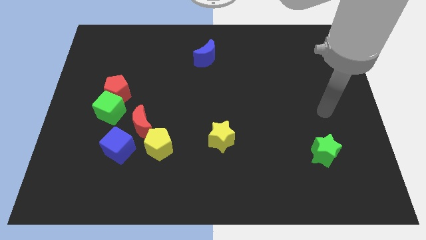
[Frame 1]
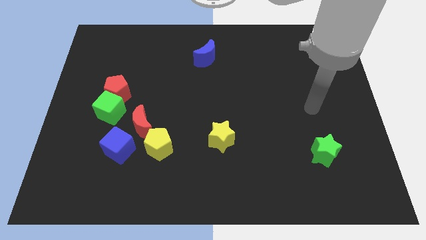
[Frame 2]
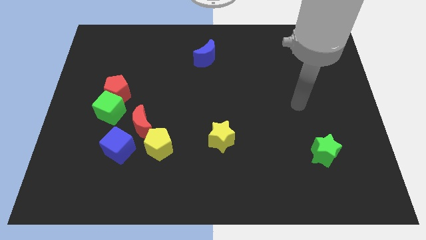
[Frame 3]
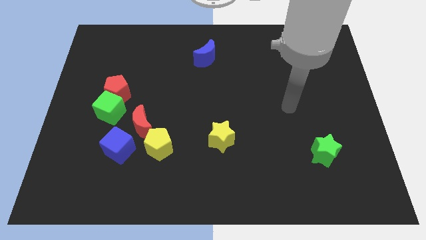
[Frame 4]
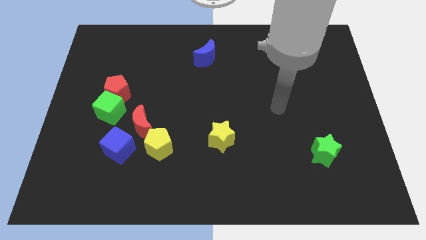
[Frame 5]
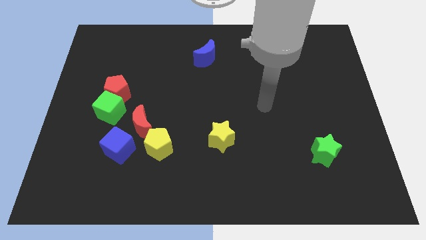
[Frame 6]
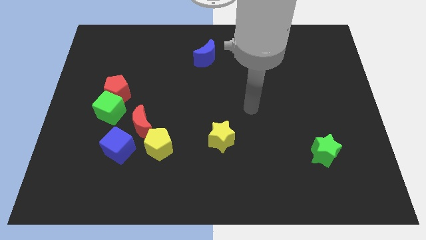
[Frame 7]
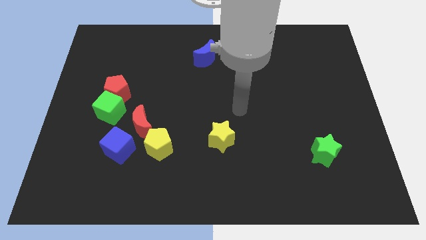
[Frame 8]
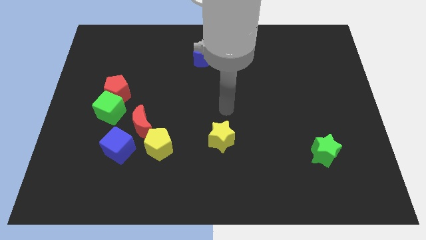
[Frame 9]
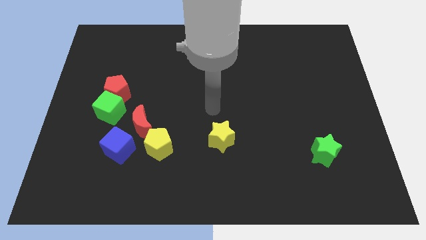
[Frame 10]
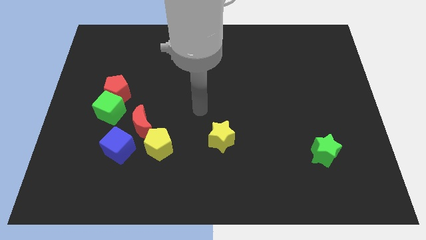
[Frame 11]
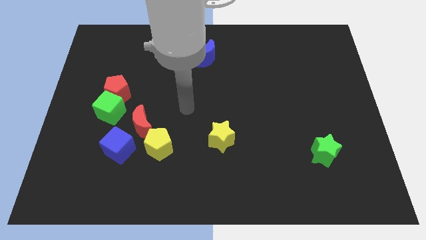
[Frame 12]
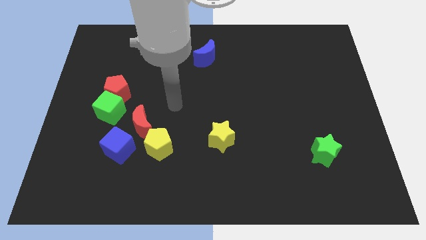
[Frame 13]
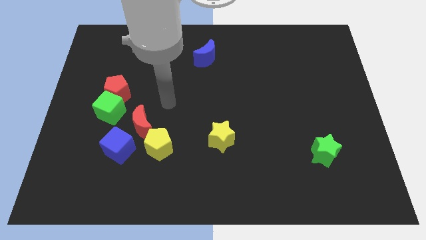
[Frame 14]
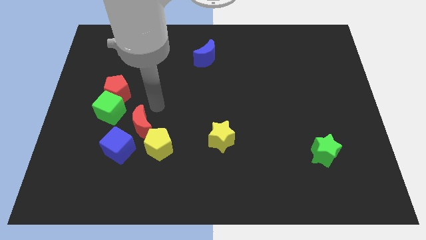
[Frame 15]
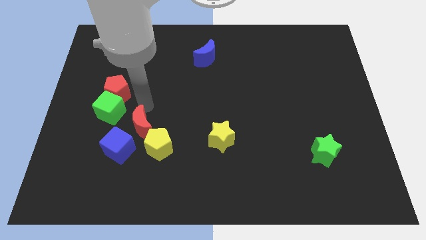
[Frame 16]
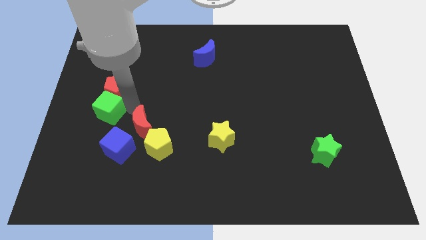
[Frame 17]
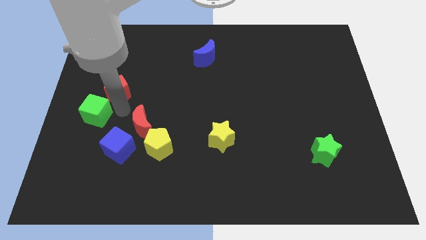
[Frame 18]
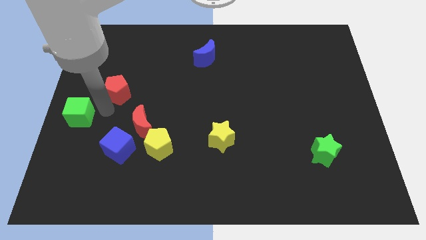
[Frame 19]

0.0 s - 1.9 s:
separate the red pentagon from the green cube

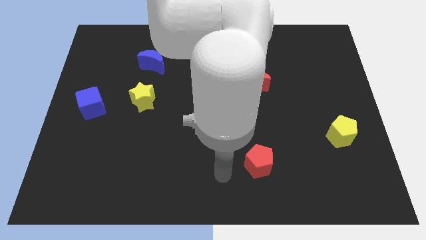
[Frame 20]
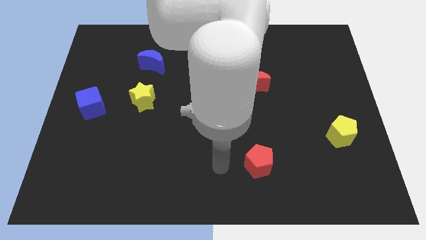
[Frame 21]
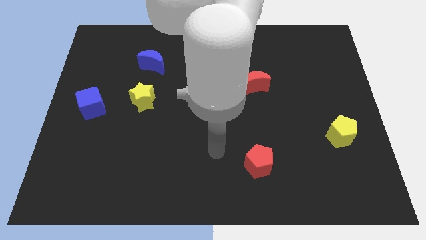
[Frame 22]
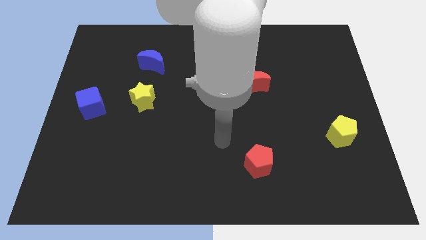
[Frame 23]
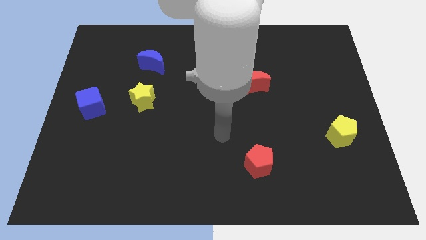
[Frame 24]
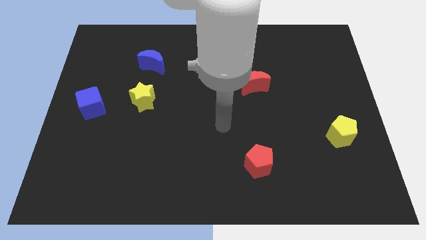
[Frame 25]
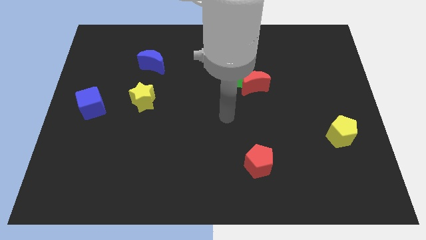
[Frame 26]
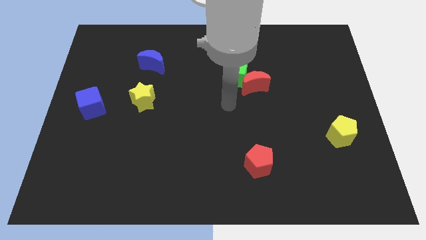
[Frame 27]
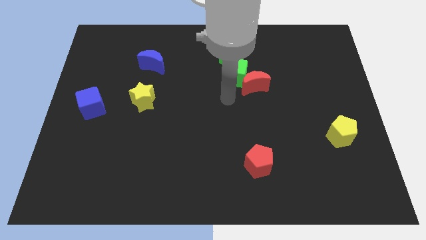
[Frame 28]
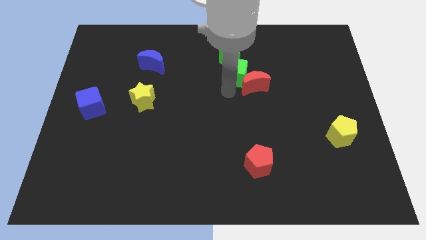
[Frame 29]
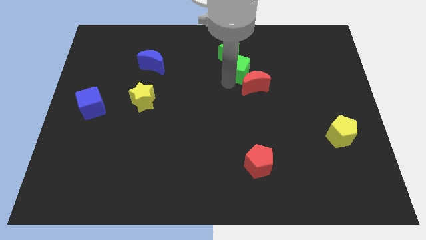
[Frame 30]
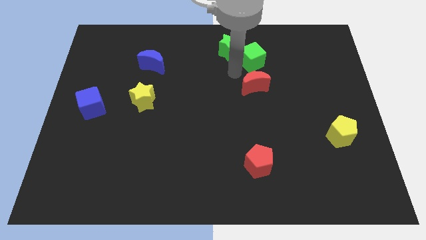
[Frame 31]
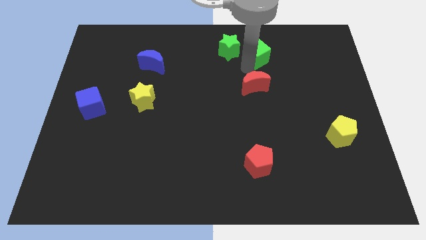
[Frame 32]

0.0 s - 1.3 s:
separate the red moon from the green cube

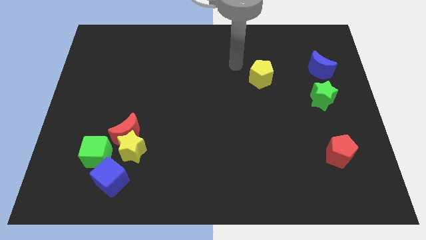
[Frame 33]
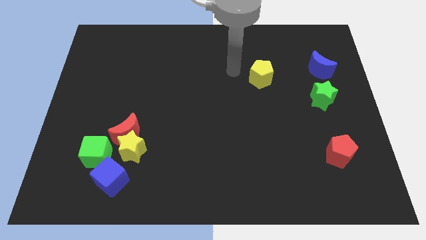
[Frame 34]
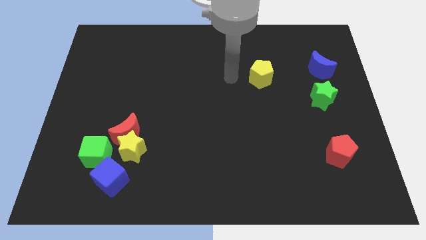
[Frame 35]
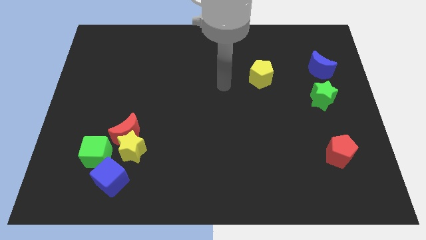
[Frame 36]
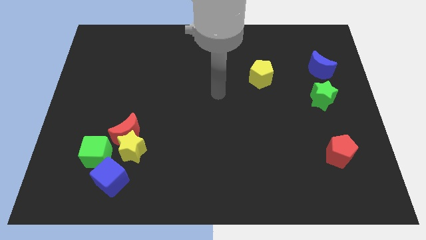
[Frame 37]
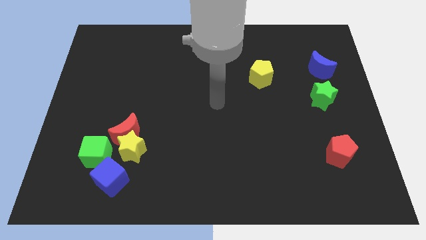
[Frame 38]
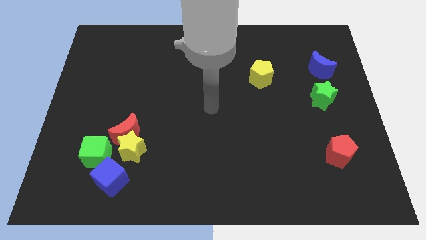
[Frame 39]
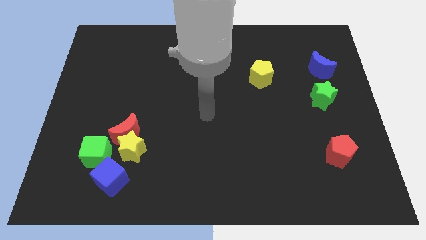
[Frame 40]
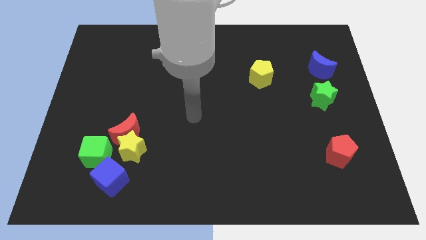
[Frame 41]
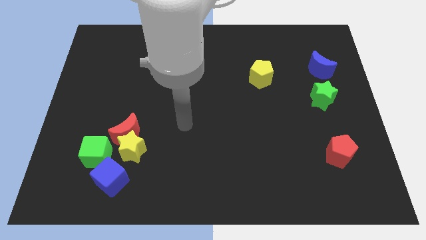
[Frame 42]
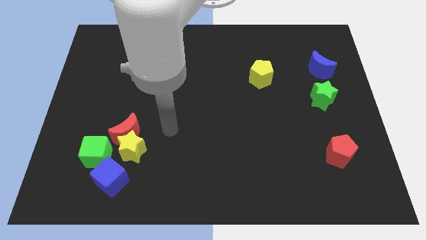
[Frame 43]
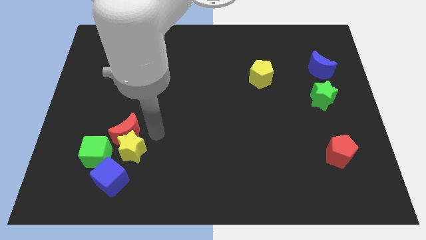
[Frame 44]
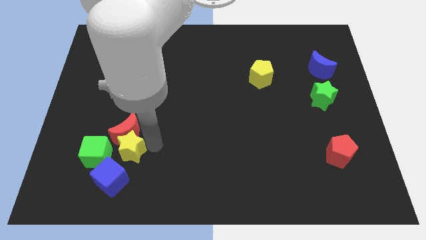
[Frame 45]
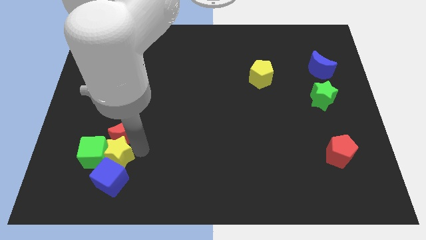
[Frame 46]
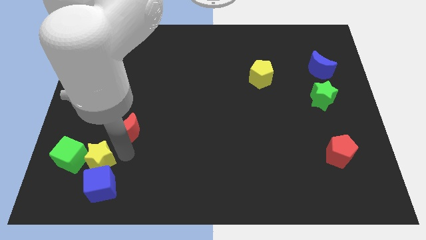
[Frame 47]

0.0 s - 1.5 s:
pull the red moon apart from the yellow star and green cube

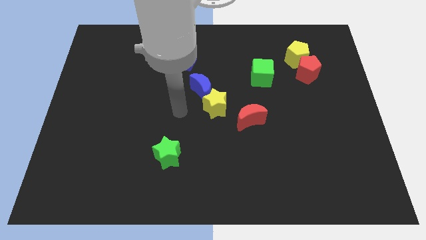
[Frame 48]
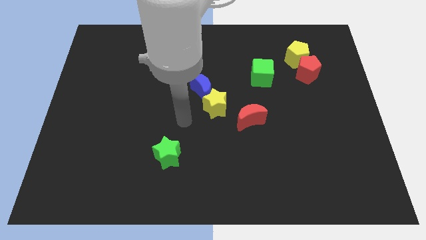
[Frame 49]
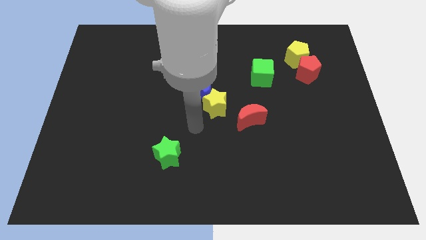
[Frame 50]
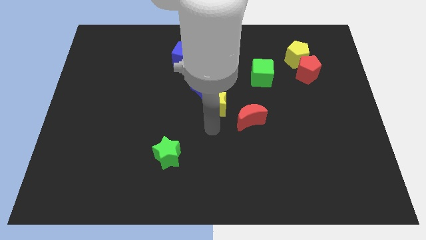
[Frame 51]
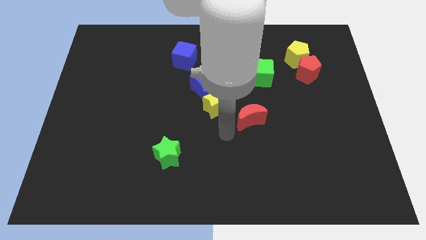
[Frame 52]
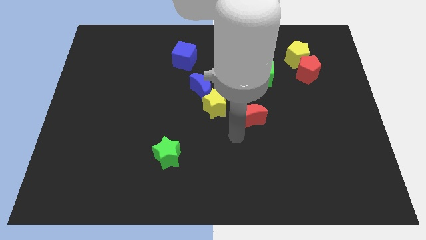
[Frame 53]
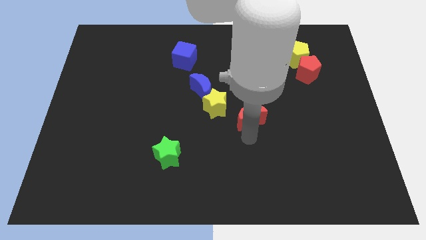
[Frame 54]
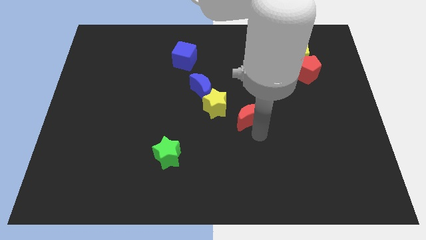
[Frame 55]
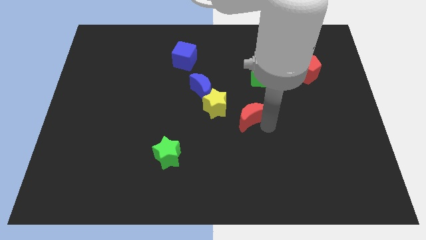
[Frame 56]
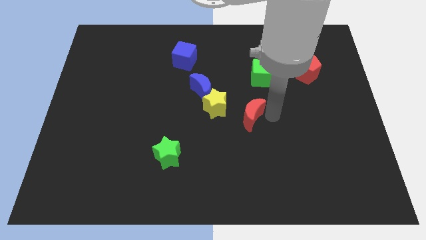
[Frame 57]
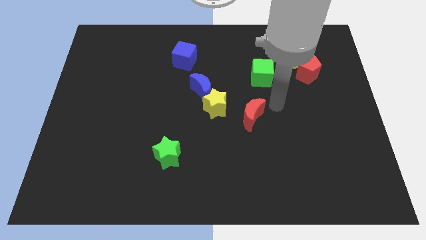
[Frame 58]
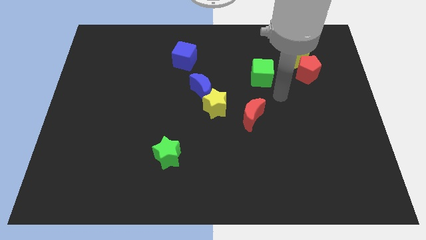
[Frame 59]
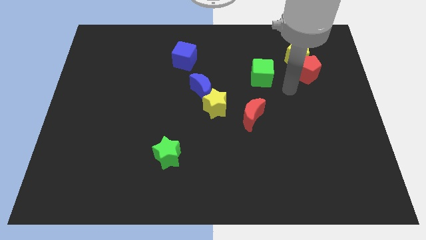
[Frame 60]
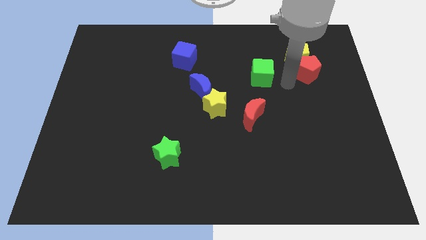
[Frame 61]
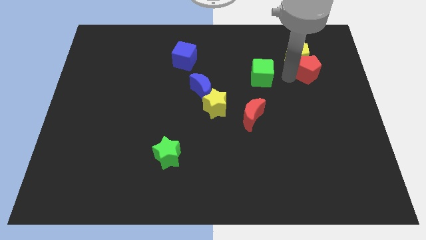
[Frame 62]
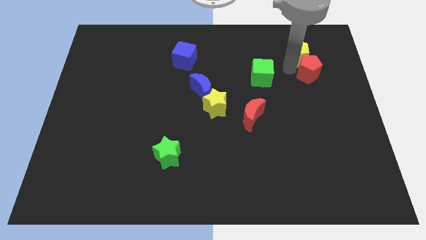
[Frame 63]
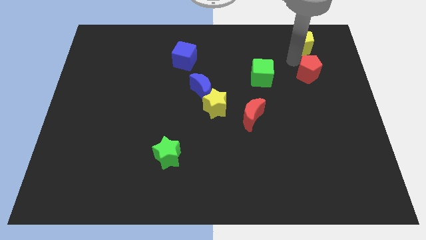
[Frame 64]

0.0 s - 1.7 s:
separate the red pentagon from the yellow pentagon

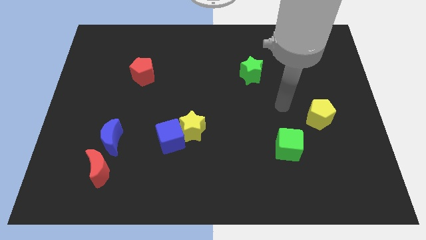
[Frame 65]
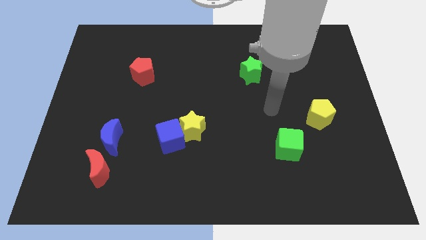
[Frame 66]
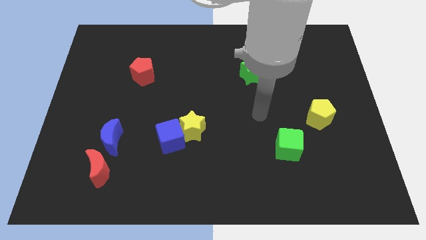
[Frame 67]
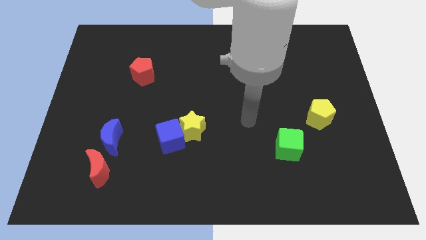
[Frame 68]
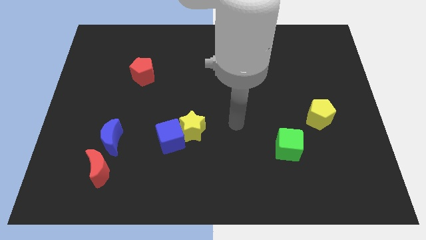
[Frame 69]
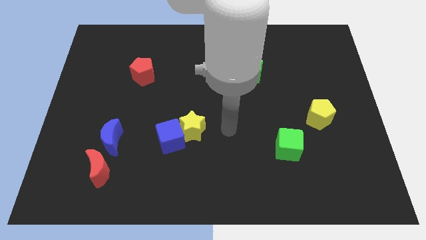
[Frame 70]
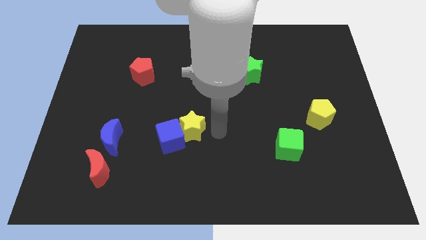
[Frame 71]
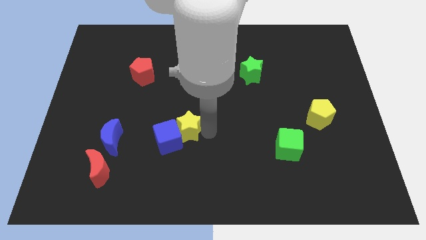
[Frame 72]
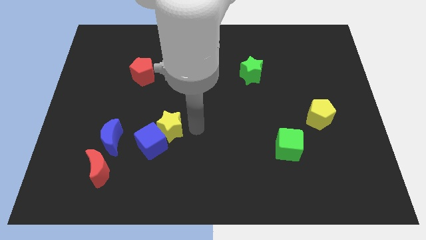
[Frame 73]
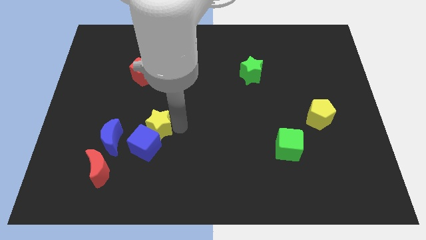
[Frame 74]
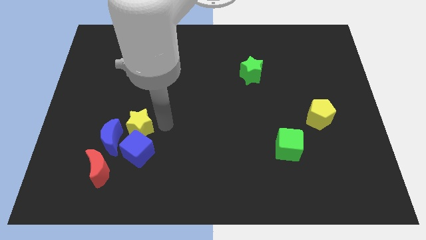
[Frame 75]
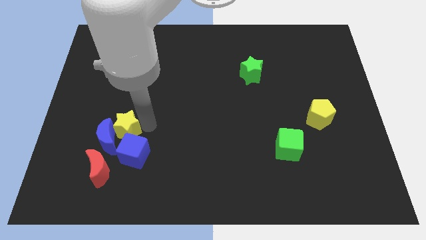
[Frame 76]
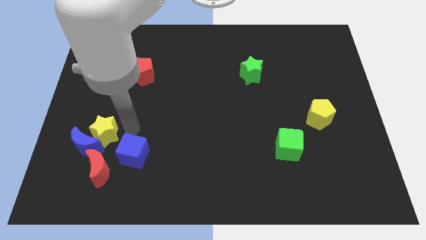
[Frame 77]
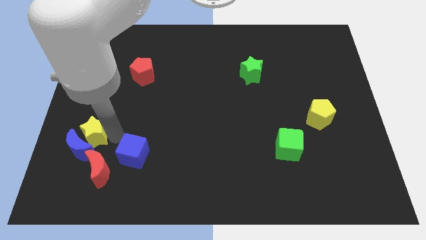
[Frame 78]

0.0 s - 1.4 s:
pull the blue cube apart from the yellow star

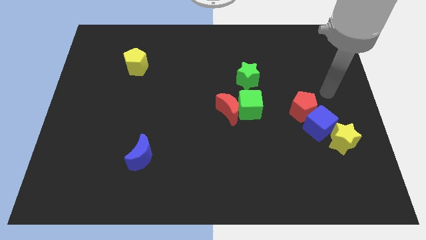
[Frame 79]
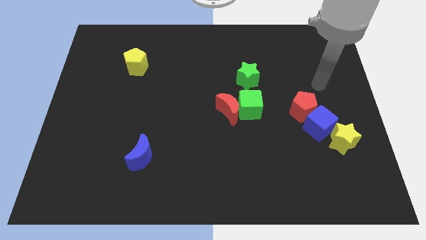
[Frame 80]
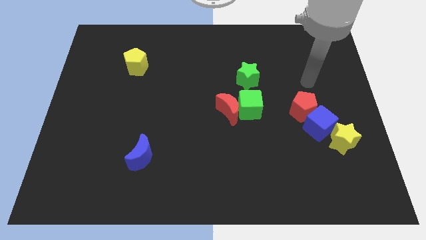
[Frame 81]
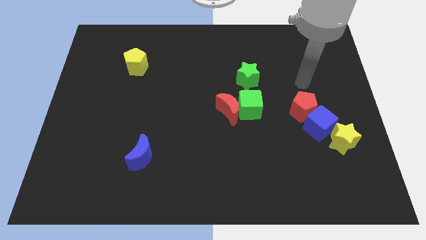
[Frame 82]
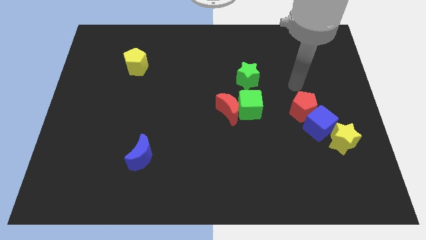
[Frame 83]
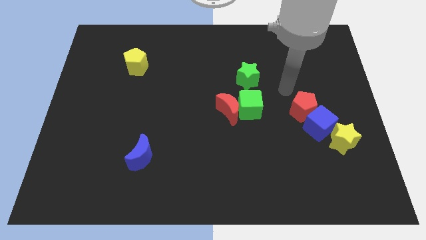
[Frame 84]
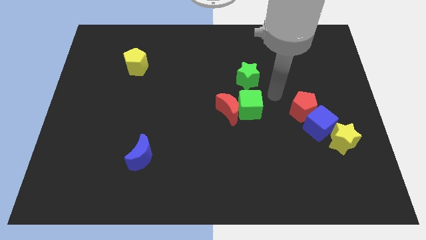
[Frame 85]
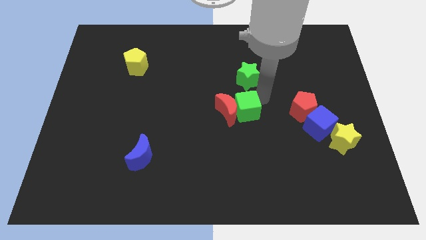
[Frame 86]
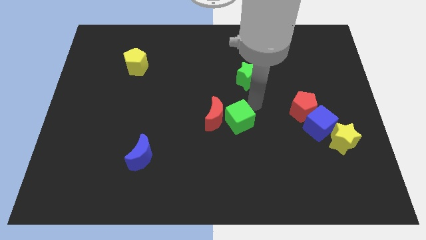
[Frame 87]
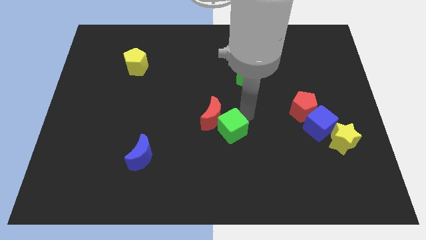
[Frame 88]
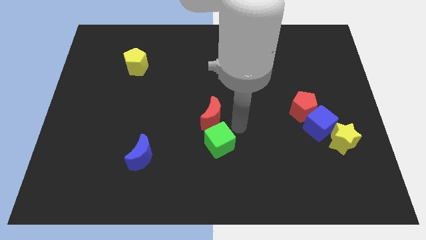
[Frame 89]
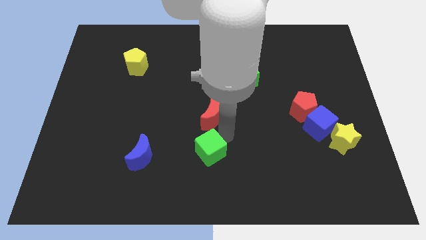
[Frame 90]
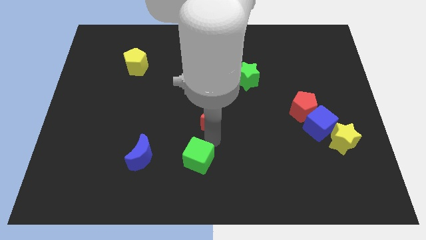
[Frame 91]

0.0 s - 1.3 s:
pull the red moon apart from the green cube

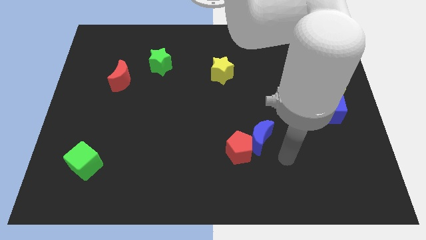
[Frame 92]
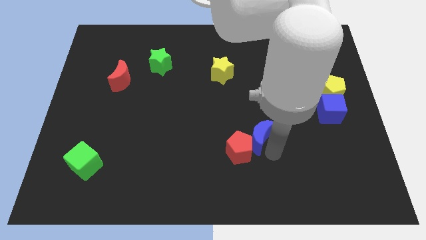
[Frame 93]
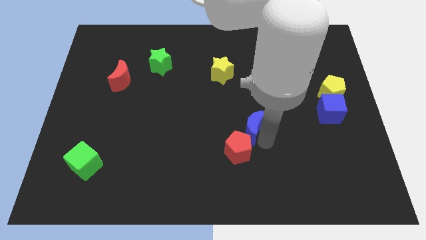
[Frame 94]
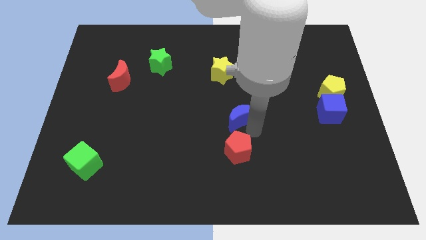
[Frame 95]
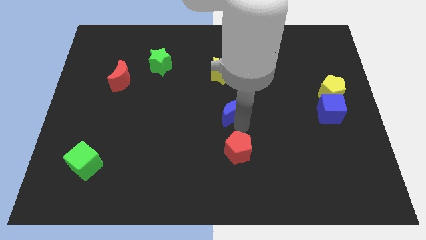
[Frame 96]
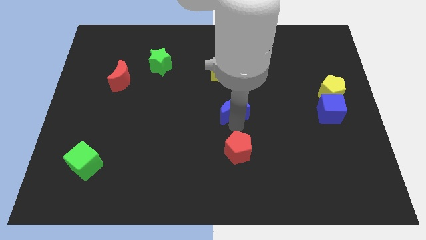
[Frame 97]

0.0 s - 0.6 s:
move the red pentagon away from the blue moon
